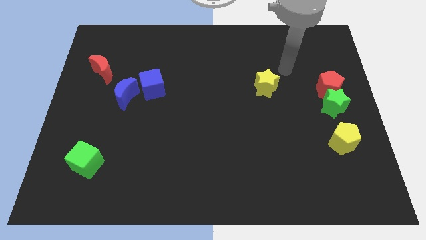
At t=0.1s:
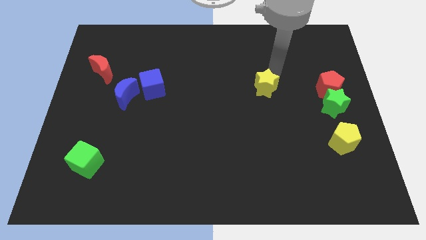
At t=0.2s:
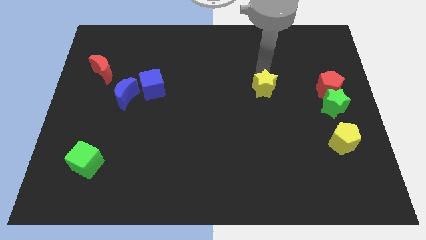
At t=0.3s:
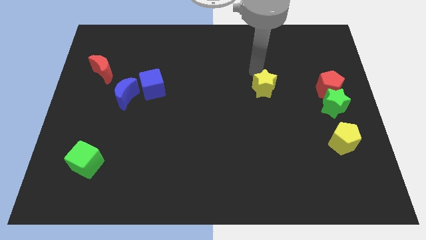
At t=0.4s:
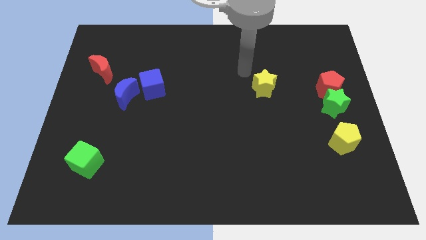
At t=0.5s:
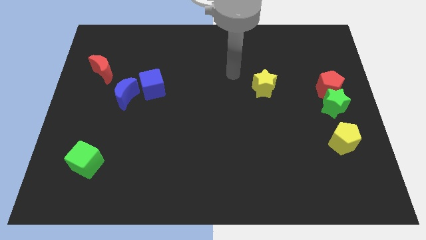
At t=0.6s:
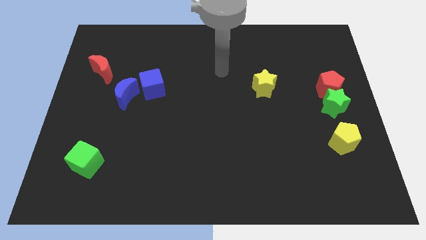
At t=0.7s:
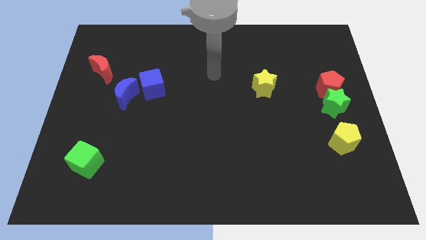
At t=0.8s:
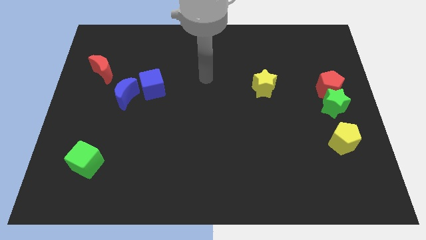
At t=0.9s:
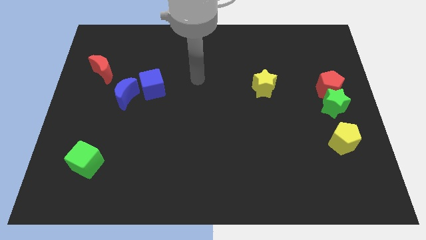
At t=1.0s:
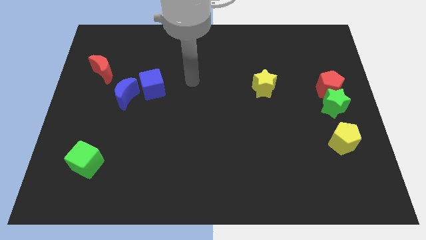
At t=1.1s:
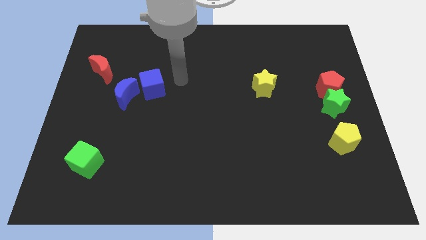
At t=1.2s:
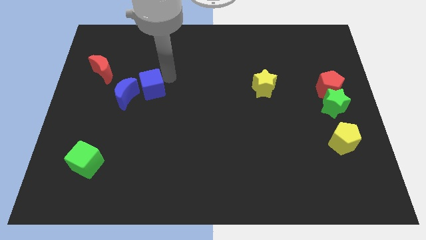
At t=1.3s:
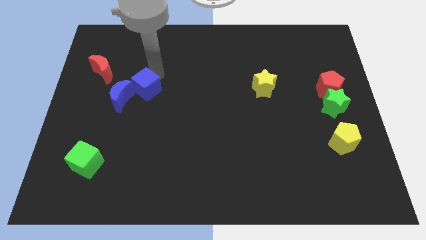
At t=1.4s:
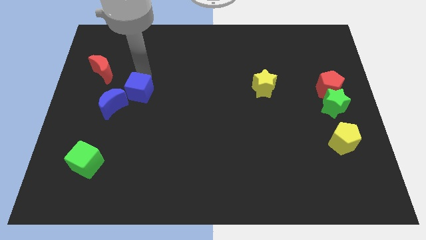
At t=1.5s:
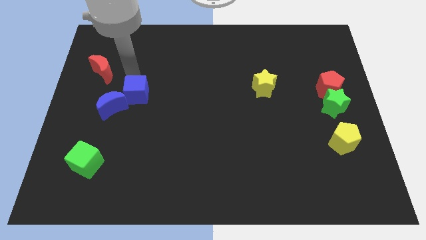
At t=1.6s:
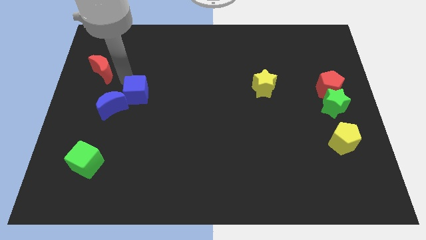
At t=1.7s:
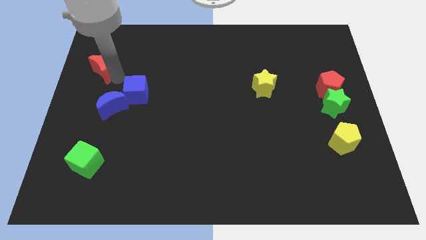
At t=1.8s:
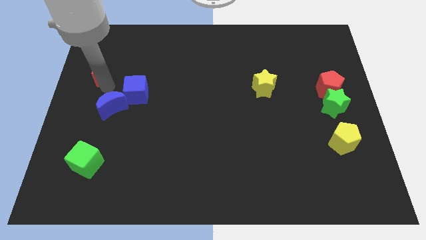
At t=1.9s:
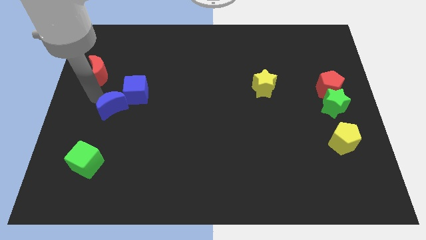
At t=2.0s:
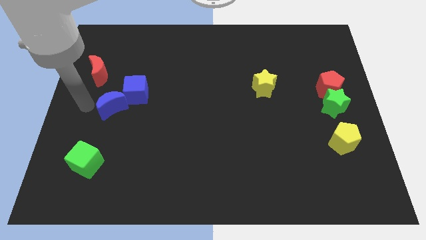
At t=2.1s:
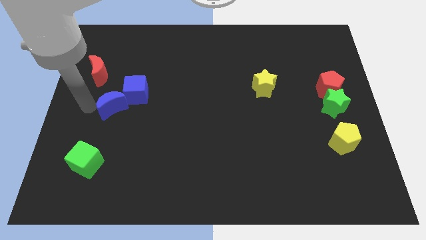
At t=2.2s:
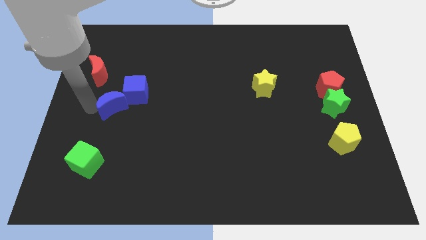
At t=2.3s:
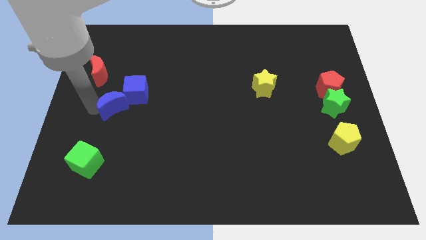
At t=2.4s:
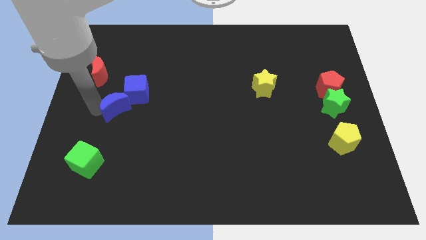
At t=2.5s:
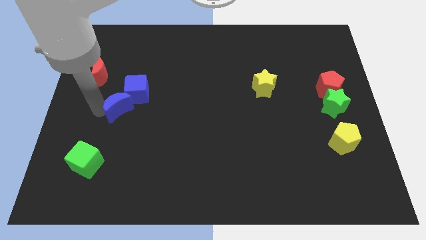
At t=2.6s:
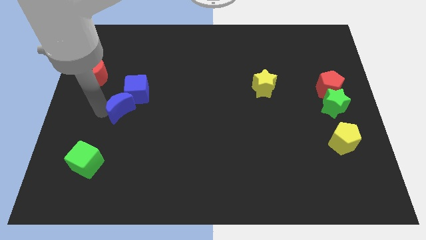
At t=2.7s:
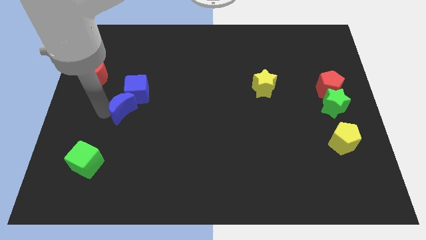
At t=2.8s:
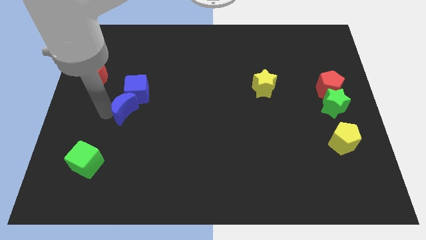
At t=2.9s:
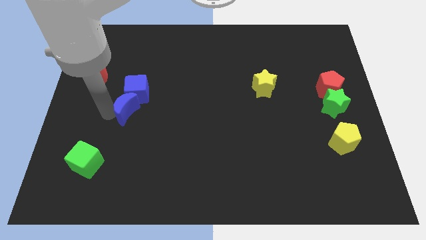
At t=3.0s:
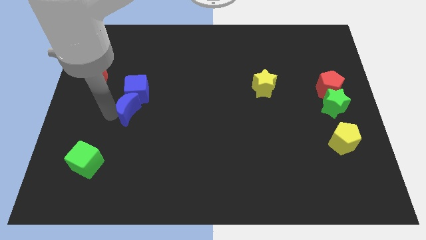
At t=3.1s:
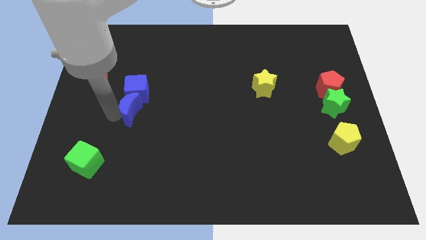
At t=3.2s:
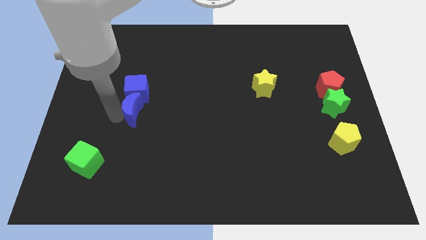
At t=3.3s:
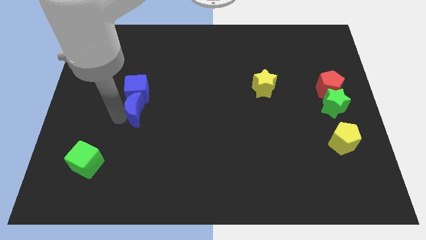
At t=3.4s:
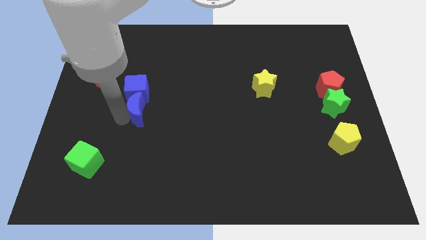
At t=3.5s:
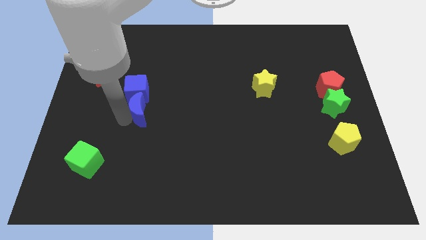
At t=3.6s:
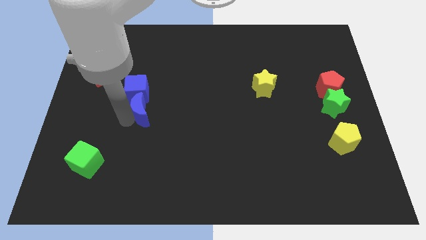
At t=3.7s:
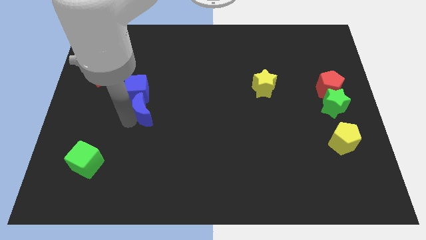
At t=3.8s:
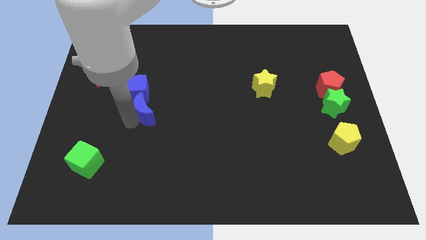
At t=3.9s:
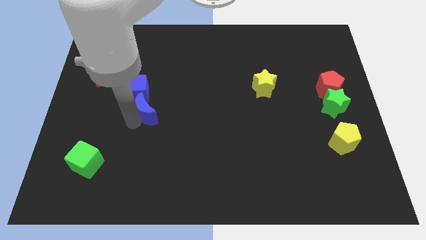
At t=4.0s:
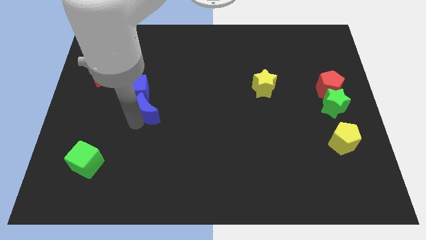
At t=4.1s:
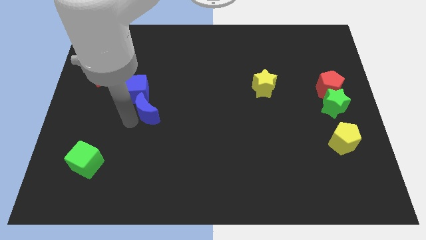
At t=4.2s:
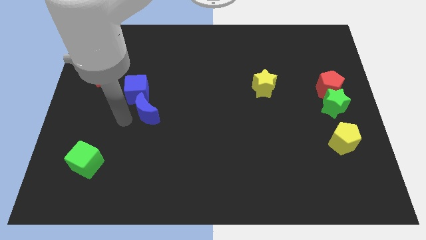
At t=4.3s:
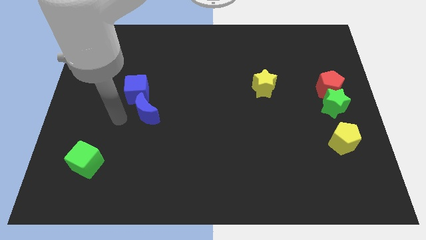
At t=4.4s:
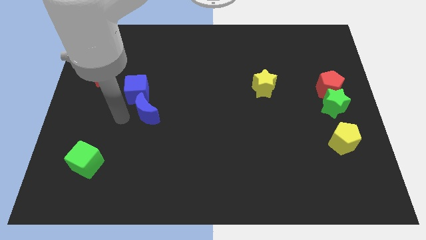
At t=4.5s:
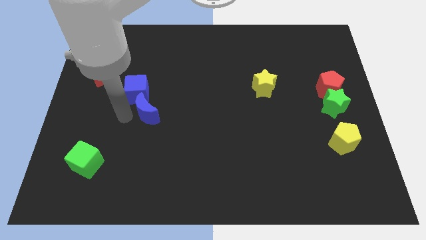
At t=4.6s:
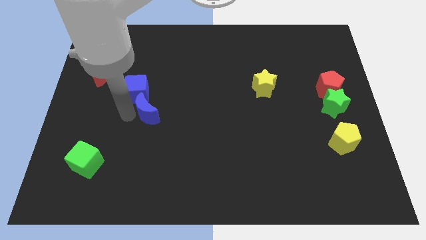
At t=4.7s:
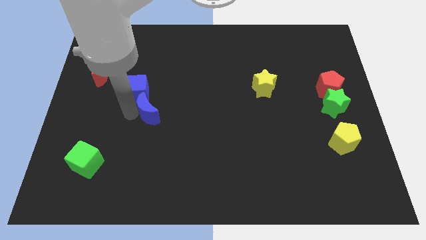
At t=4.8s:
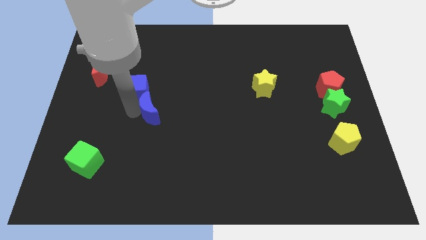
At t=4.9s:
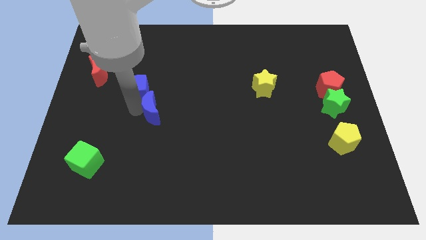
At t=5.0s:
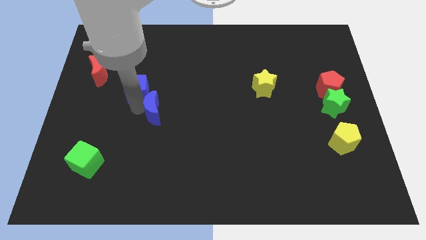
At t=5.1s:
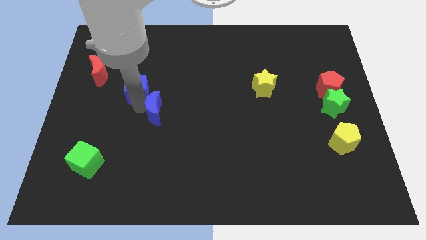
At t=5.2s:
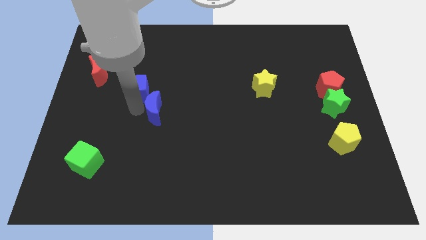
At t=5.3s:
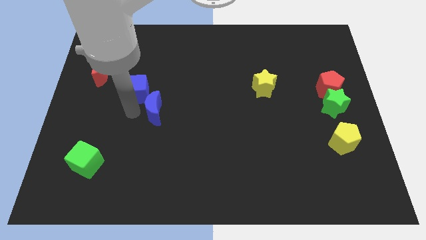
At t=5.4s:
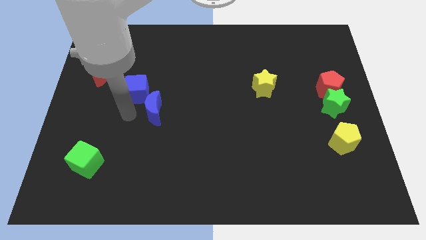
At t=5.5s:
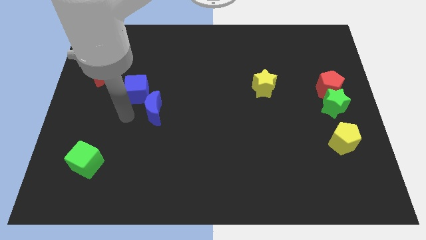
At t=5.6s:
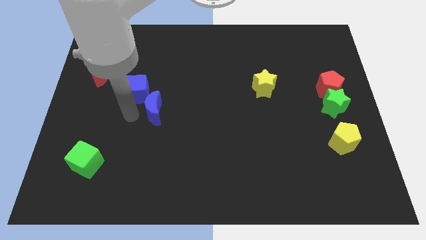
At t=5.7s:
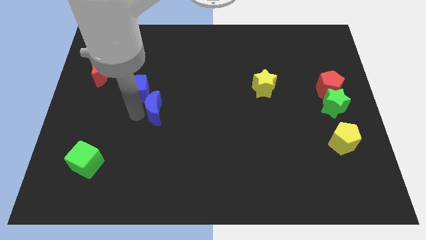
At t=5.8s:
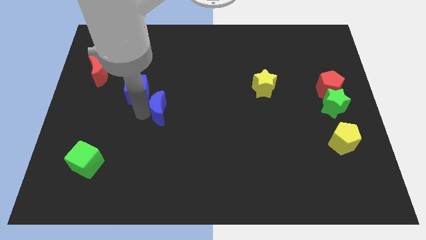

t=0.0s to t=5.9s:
move the blue moon to the right a bit

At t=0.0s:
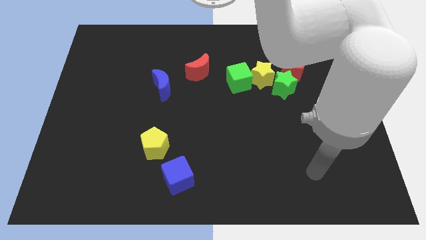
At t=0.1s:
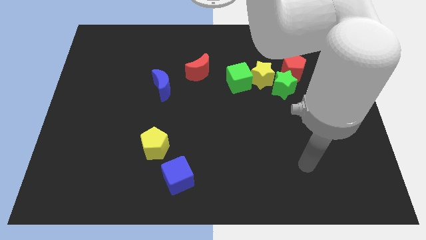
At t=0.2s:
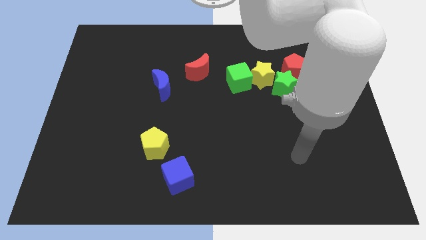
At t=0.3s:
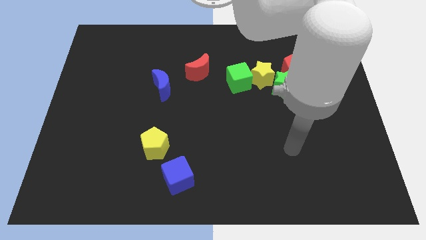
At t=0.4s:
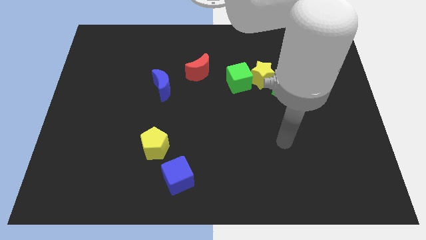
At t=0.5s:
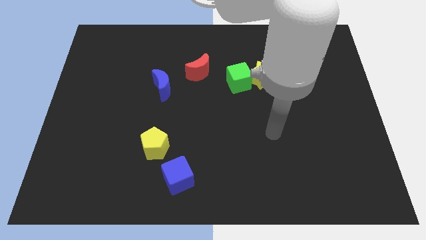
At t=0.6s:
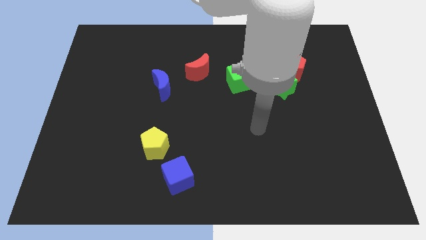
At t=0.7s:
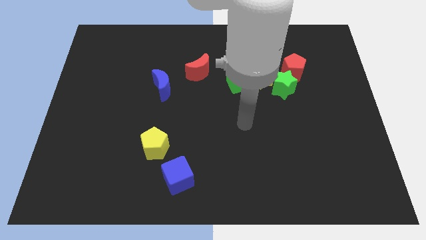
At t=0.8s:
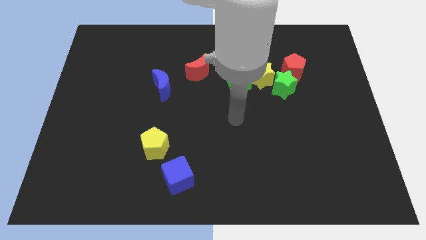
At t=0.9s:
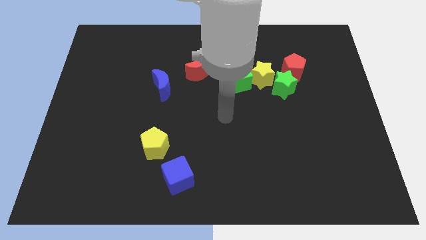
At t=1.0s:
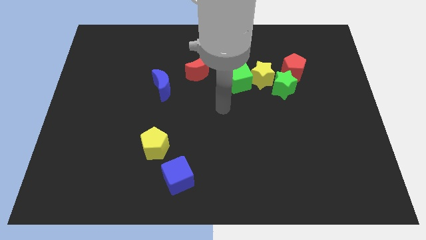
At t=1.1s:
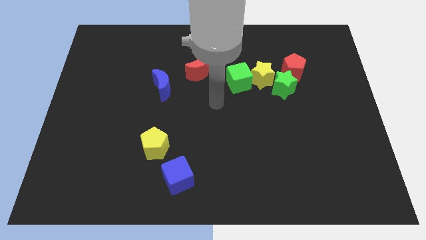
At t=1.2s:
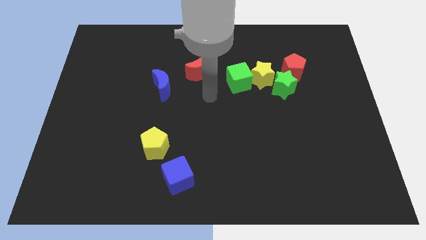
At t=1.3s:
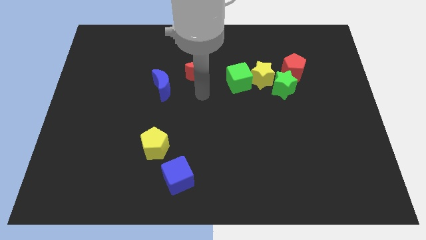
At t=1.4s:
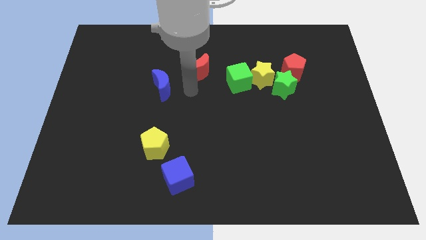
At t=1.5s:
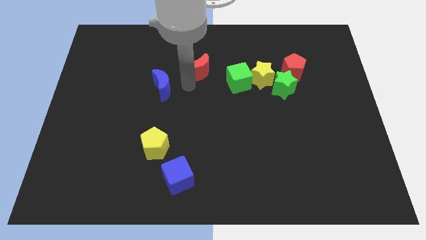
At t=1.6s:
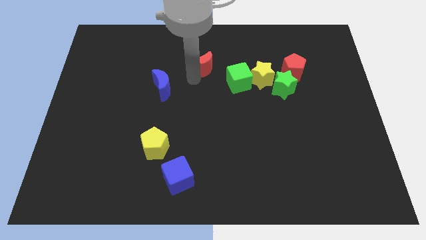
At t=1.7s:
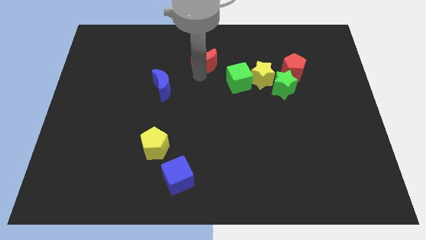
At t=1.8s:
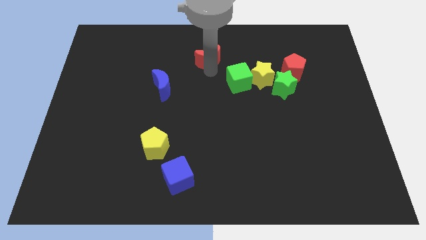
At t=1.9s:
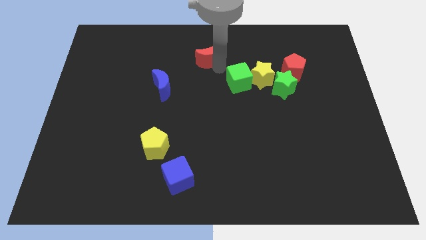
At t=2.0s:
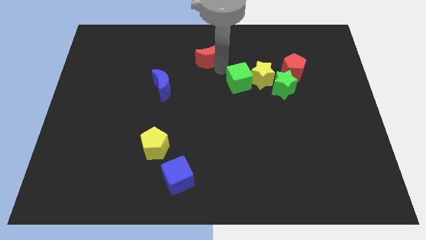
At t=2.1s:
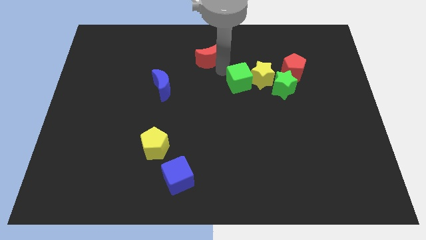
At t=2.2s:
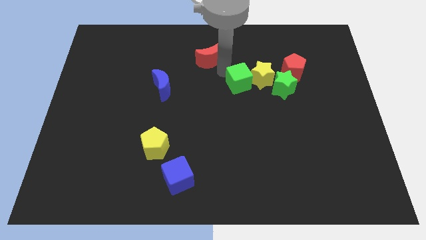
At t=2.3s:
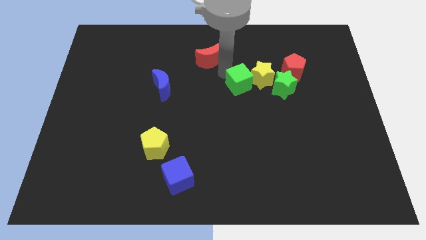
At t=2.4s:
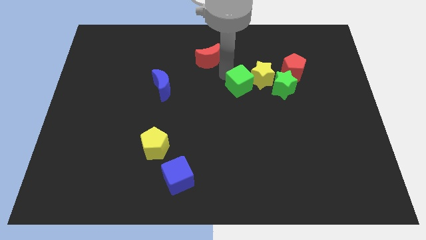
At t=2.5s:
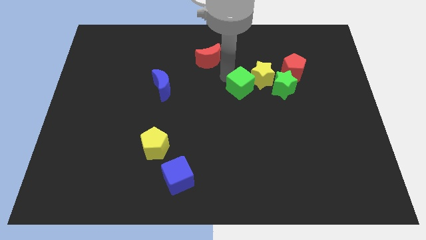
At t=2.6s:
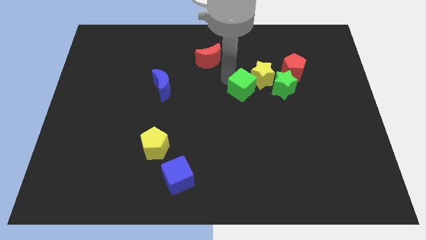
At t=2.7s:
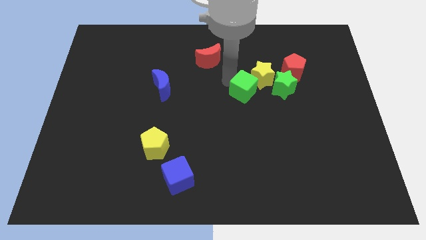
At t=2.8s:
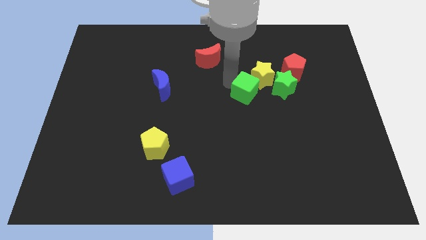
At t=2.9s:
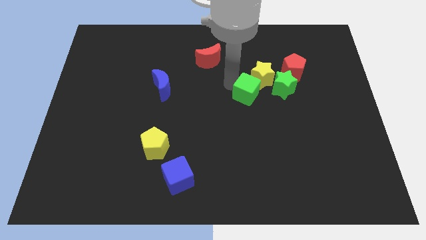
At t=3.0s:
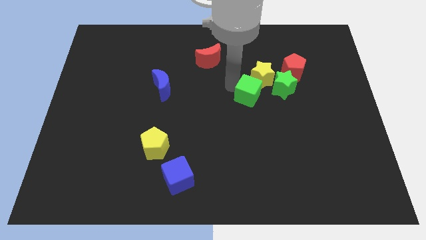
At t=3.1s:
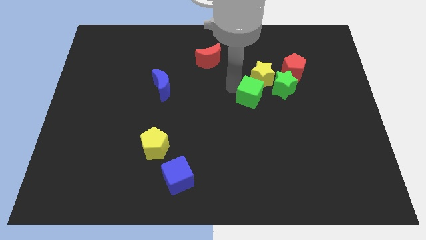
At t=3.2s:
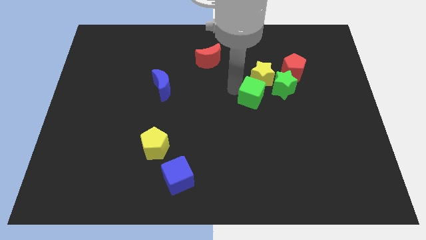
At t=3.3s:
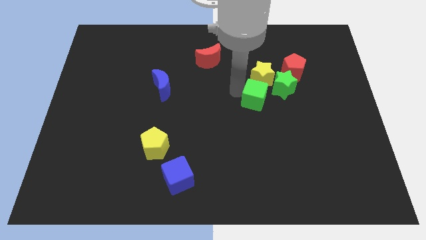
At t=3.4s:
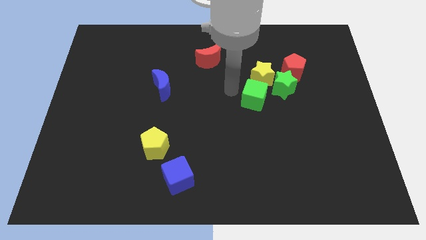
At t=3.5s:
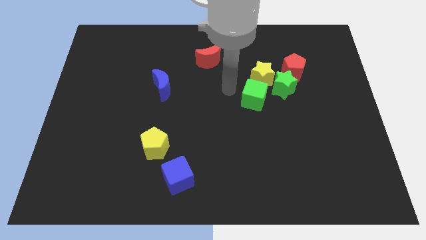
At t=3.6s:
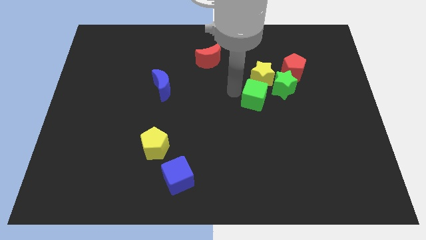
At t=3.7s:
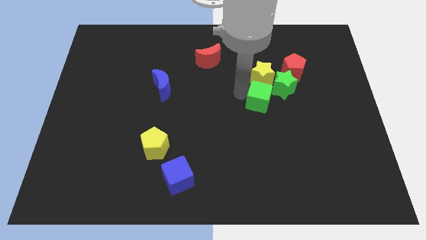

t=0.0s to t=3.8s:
slide the green cube a little down and right
